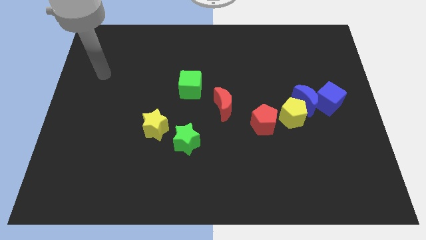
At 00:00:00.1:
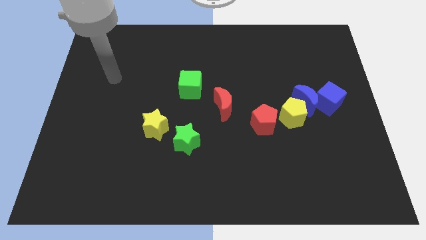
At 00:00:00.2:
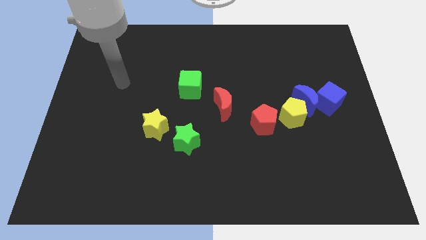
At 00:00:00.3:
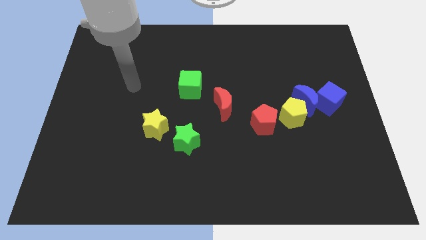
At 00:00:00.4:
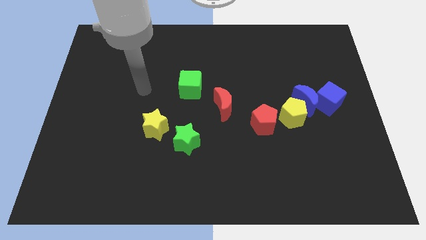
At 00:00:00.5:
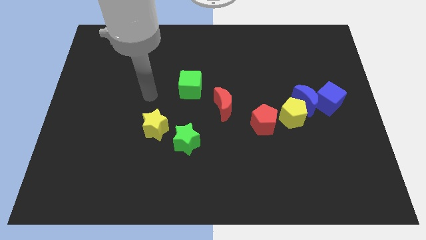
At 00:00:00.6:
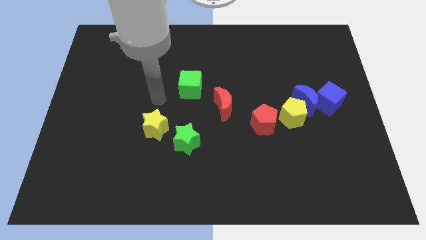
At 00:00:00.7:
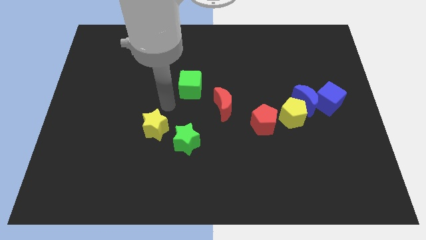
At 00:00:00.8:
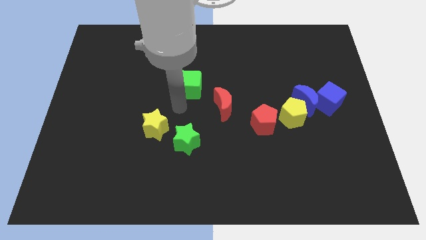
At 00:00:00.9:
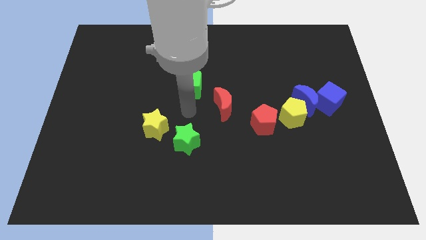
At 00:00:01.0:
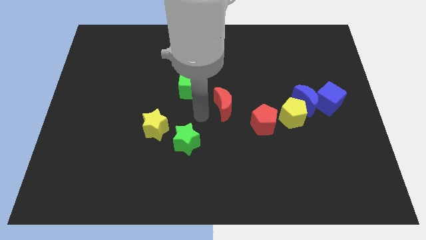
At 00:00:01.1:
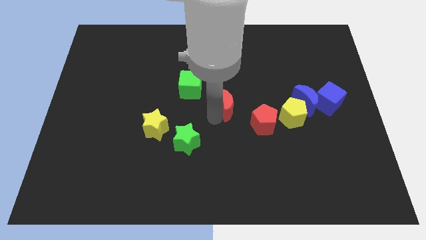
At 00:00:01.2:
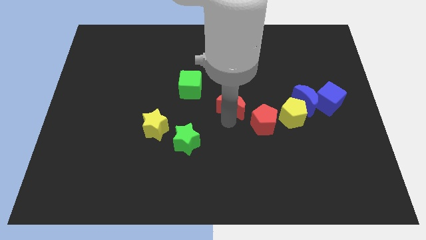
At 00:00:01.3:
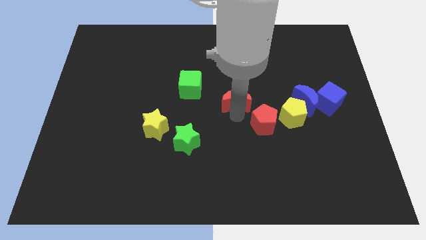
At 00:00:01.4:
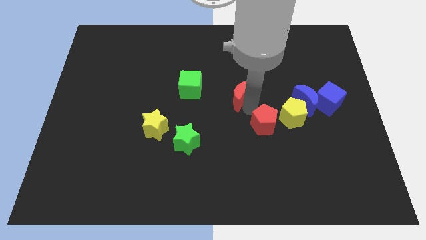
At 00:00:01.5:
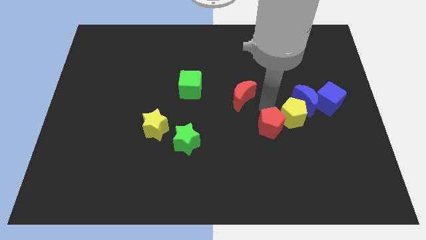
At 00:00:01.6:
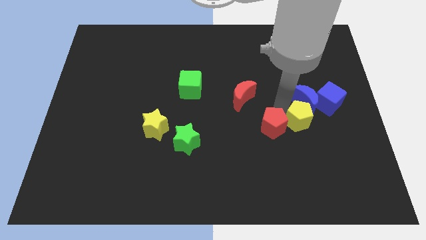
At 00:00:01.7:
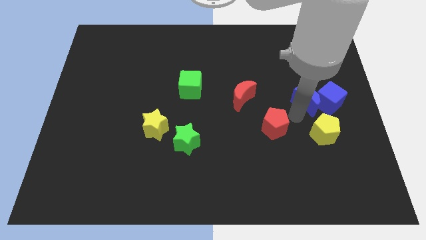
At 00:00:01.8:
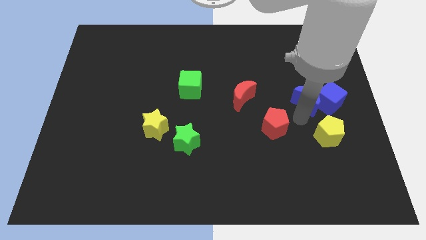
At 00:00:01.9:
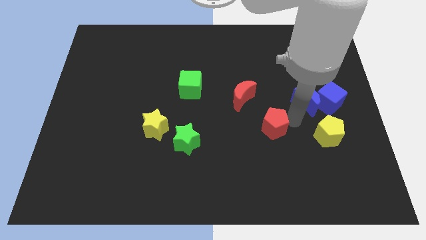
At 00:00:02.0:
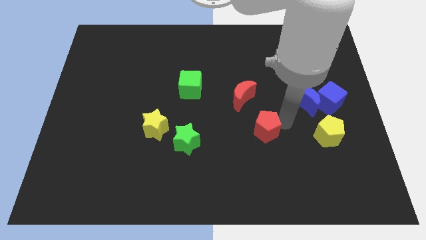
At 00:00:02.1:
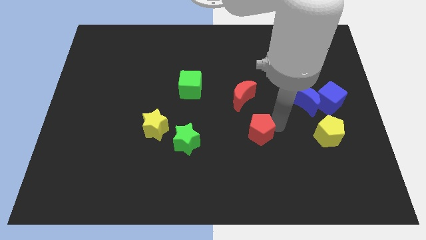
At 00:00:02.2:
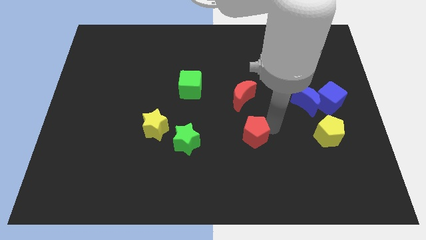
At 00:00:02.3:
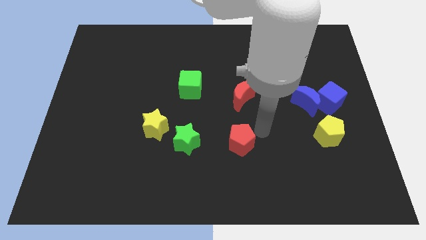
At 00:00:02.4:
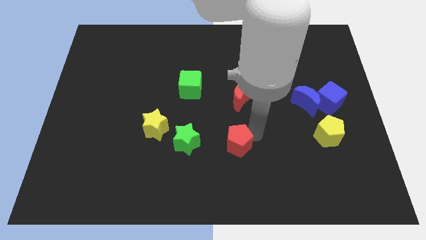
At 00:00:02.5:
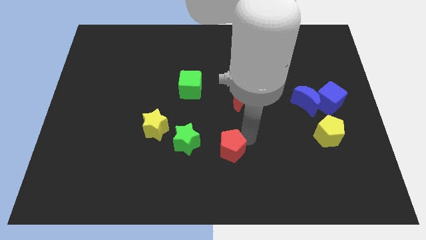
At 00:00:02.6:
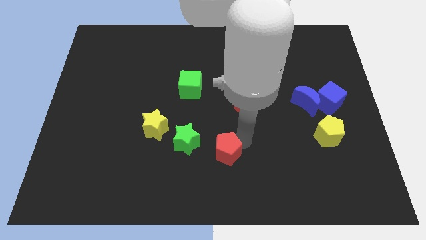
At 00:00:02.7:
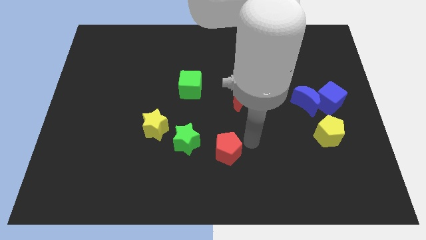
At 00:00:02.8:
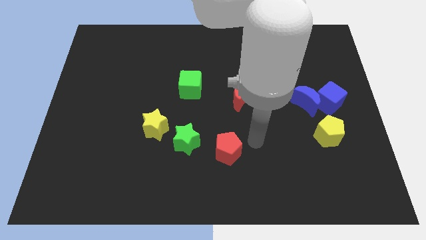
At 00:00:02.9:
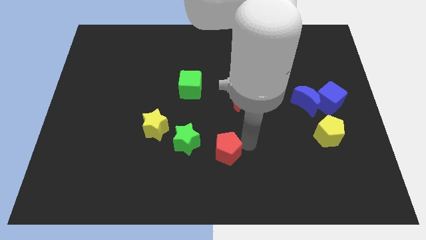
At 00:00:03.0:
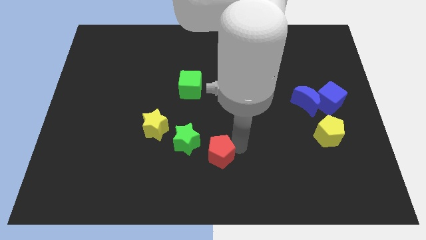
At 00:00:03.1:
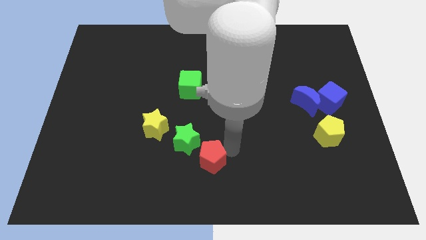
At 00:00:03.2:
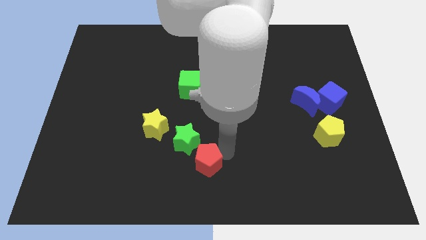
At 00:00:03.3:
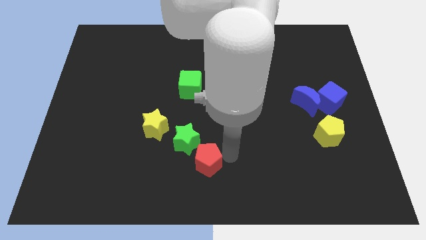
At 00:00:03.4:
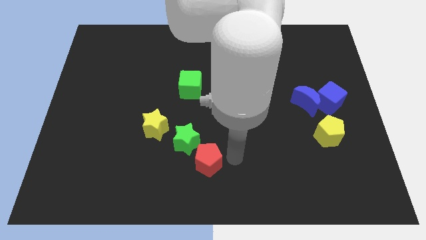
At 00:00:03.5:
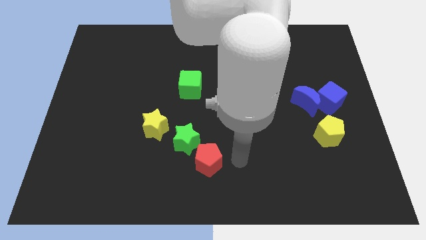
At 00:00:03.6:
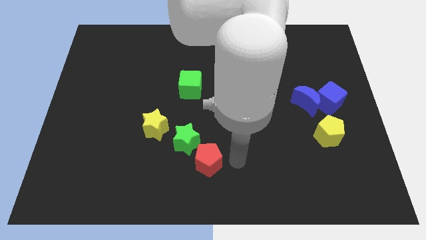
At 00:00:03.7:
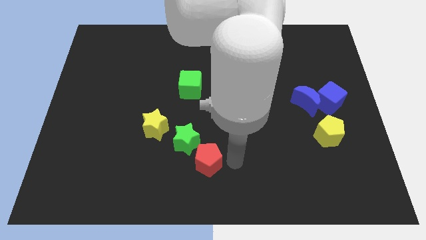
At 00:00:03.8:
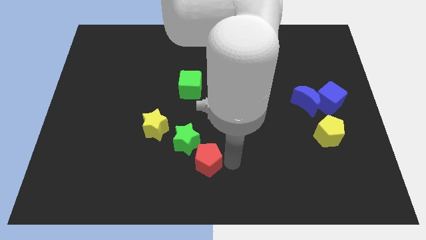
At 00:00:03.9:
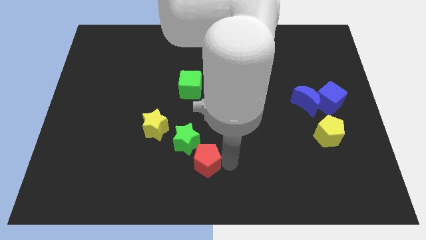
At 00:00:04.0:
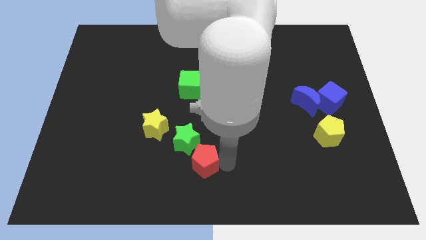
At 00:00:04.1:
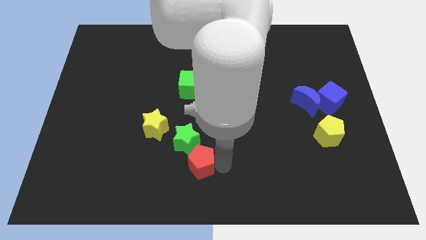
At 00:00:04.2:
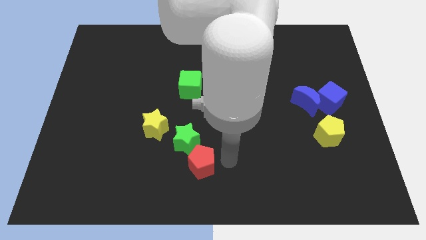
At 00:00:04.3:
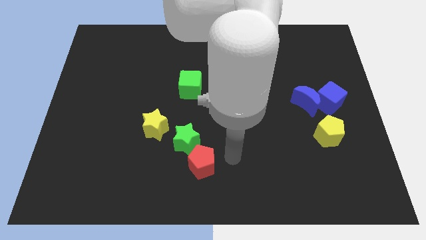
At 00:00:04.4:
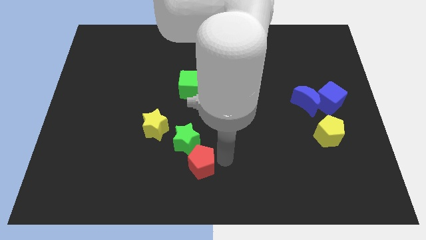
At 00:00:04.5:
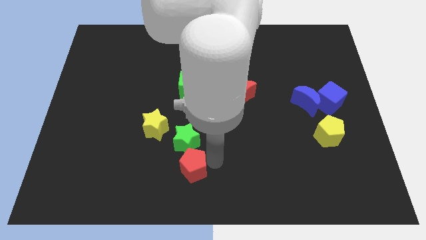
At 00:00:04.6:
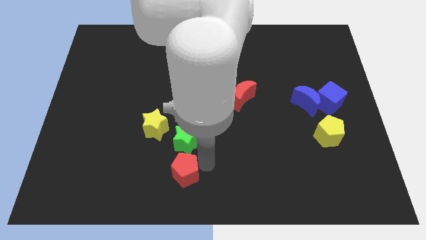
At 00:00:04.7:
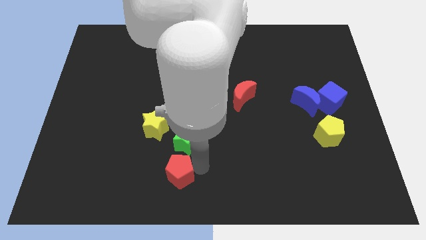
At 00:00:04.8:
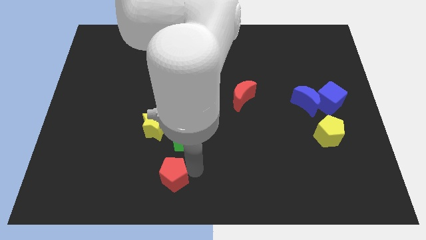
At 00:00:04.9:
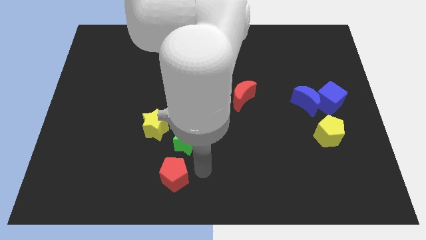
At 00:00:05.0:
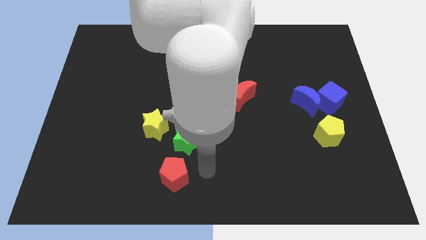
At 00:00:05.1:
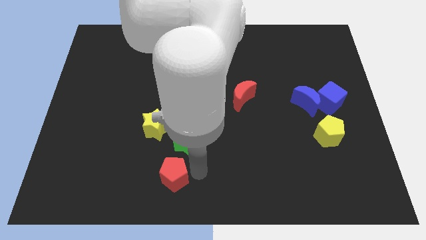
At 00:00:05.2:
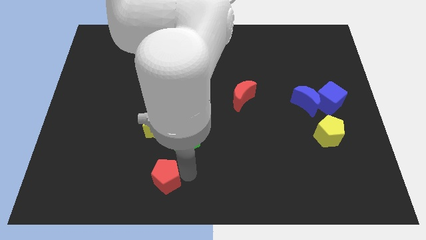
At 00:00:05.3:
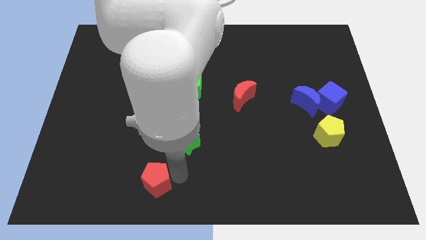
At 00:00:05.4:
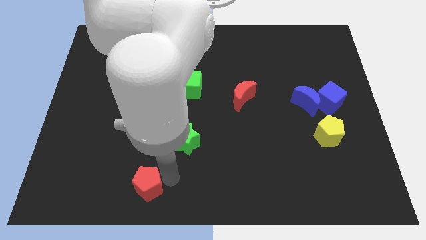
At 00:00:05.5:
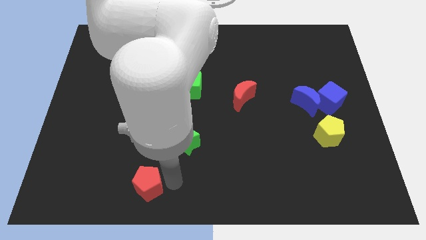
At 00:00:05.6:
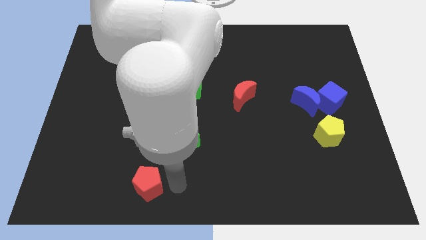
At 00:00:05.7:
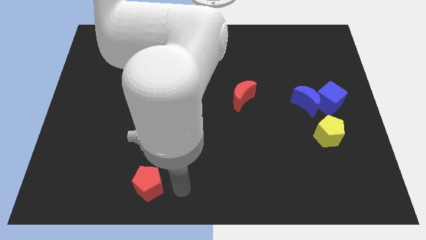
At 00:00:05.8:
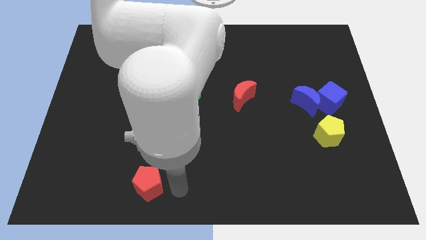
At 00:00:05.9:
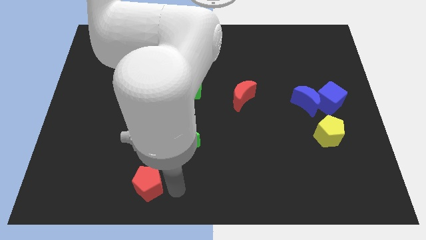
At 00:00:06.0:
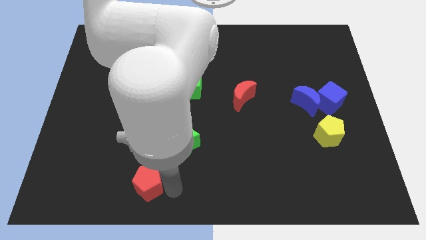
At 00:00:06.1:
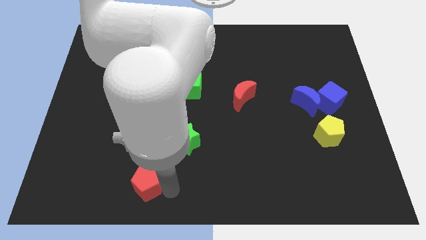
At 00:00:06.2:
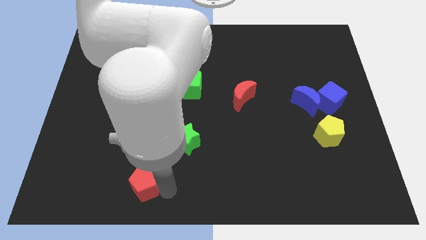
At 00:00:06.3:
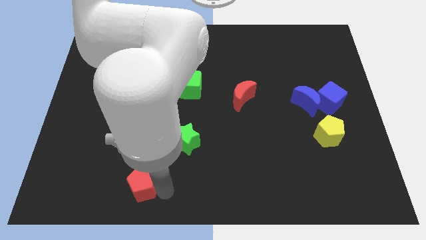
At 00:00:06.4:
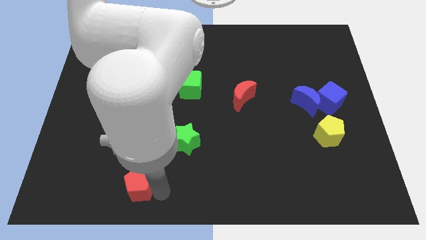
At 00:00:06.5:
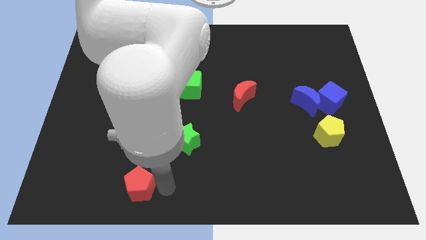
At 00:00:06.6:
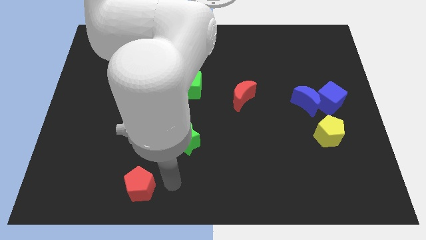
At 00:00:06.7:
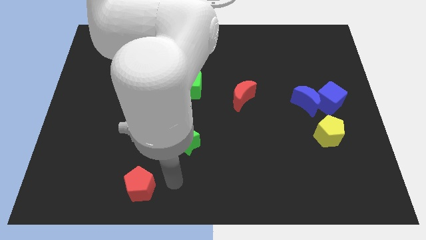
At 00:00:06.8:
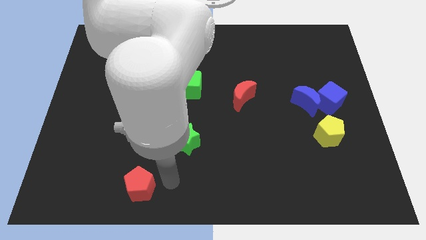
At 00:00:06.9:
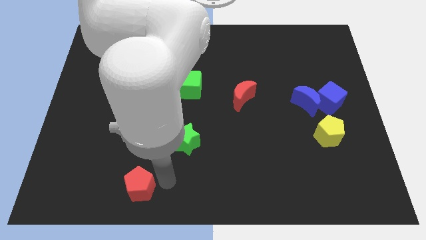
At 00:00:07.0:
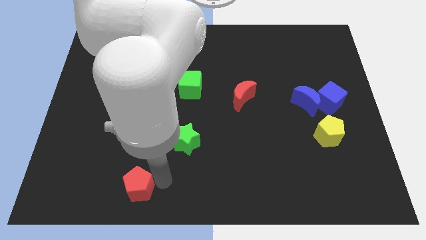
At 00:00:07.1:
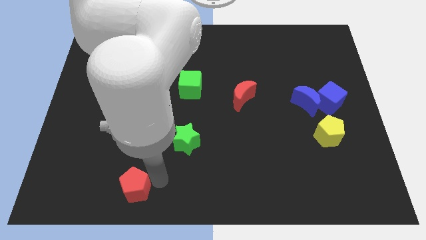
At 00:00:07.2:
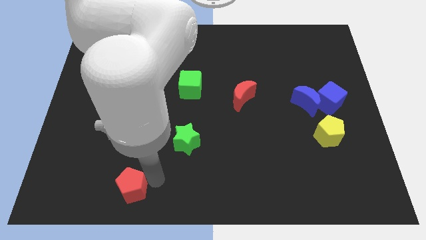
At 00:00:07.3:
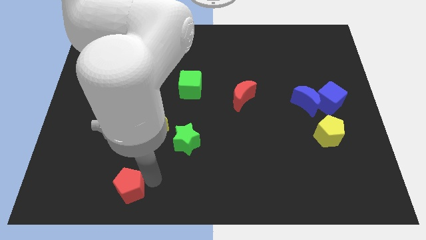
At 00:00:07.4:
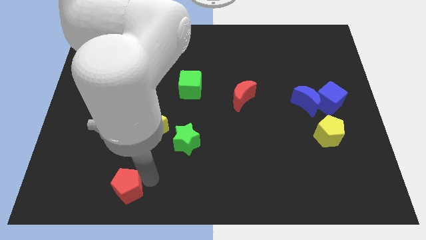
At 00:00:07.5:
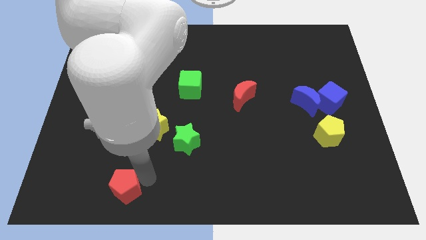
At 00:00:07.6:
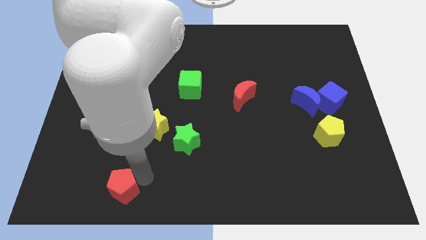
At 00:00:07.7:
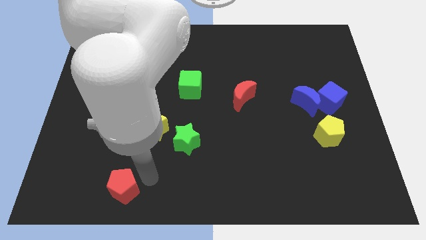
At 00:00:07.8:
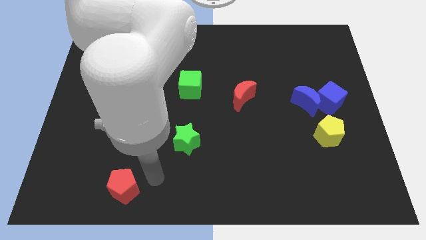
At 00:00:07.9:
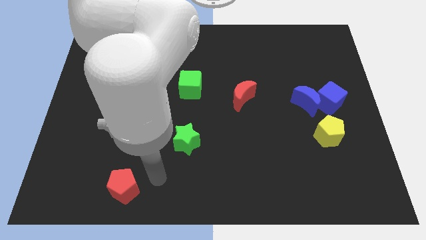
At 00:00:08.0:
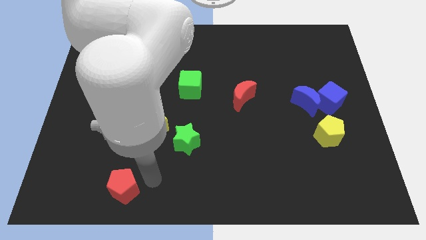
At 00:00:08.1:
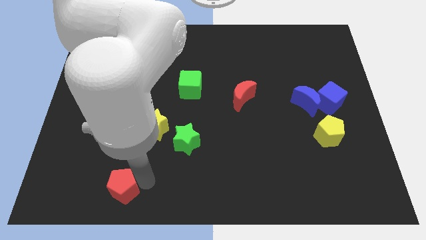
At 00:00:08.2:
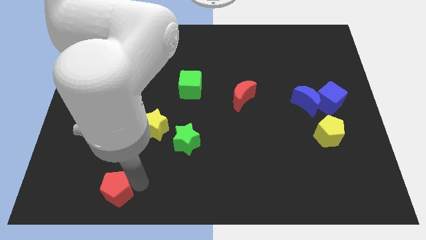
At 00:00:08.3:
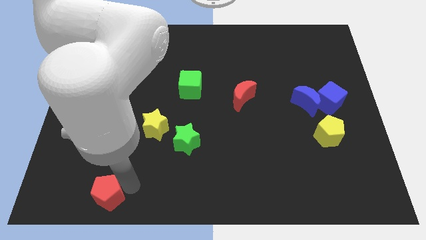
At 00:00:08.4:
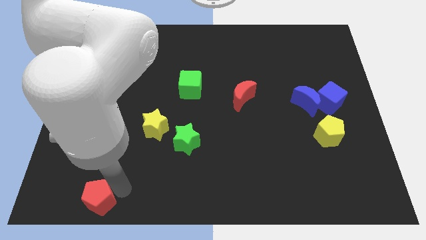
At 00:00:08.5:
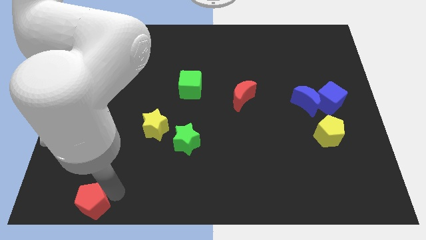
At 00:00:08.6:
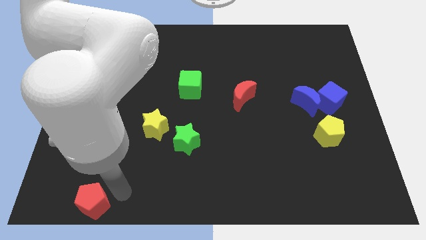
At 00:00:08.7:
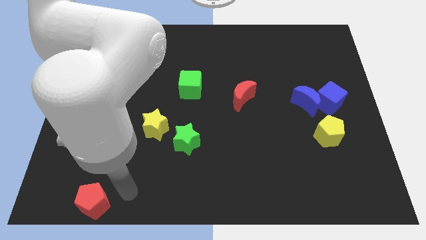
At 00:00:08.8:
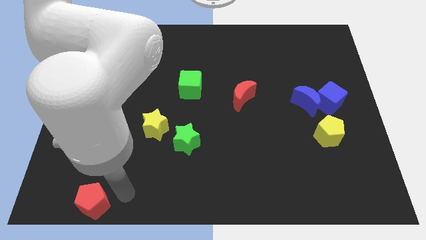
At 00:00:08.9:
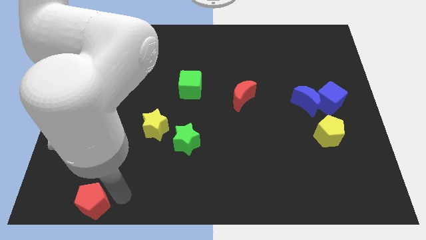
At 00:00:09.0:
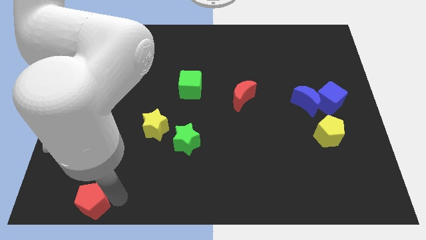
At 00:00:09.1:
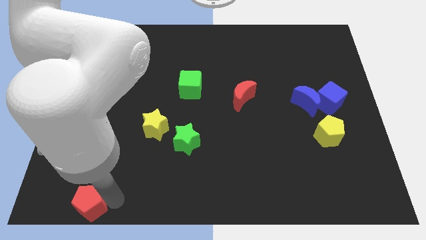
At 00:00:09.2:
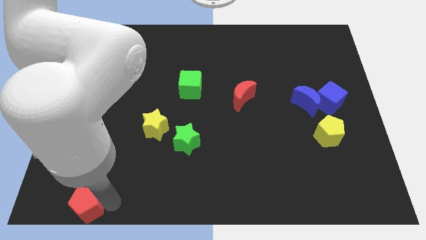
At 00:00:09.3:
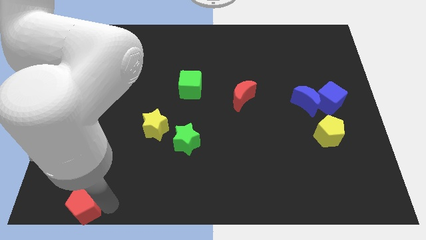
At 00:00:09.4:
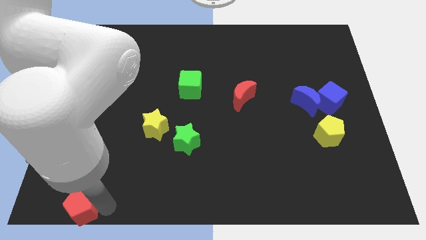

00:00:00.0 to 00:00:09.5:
slide the red pentagon to the bottom left
